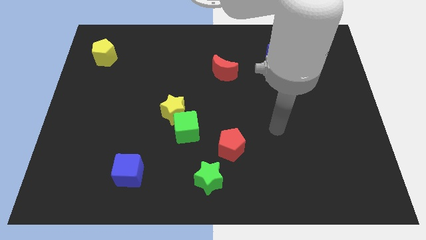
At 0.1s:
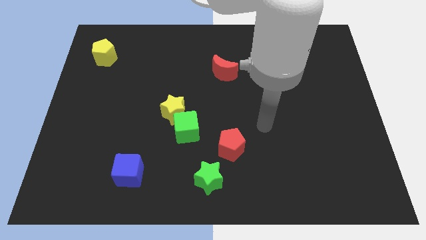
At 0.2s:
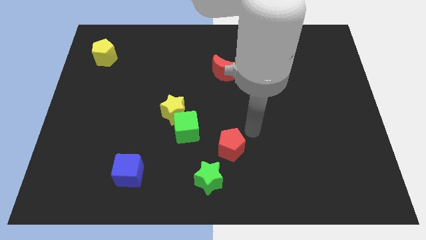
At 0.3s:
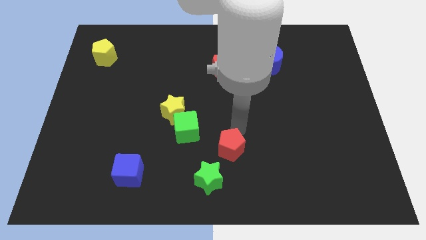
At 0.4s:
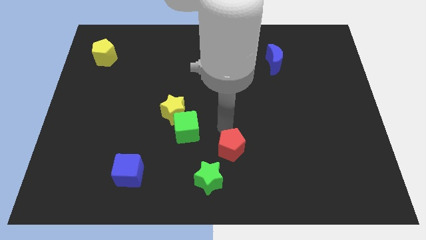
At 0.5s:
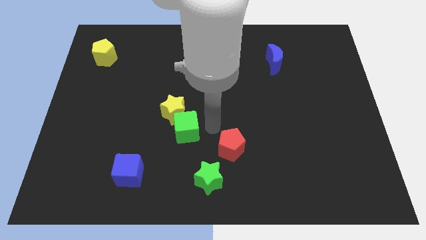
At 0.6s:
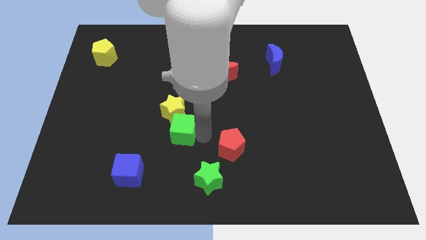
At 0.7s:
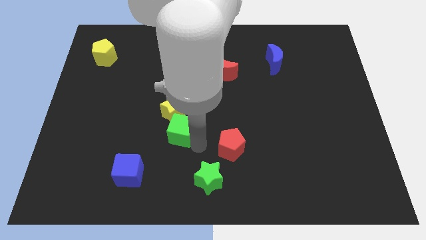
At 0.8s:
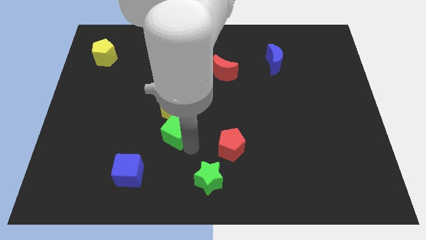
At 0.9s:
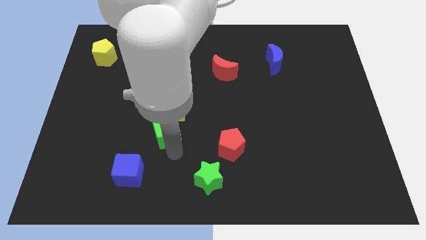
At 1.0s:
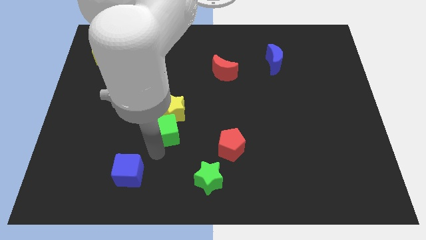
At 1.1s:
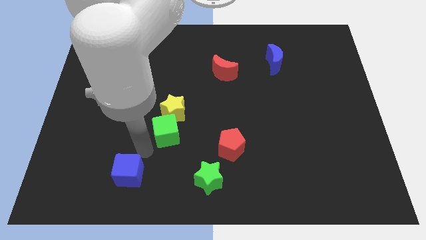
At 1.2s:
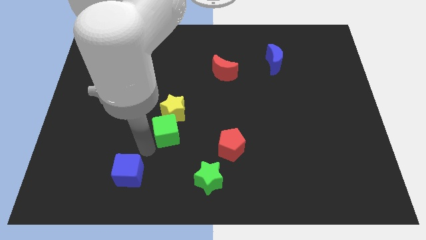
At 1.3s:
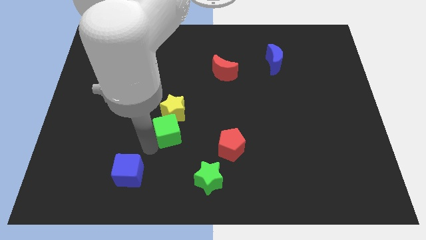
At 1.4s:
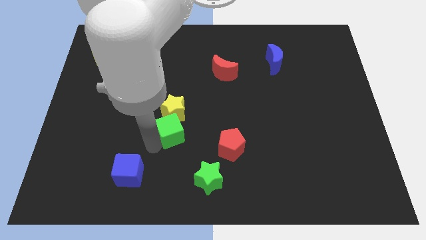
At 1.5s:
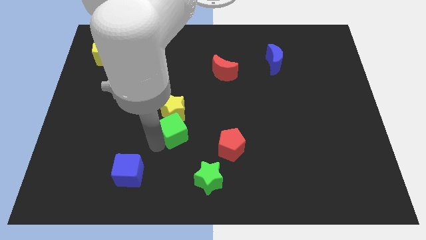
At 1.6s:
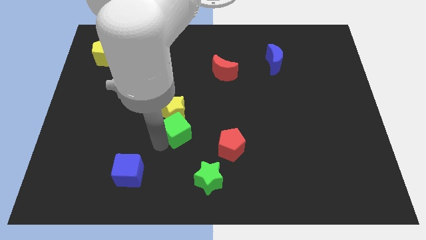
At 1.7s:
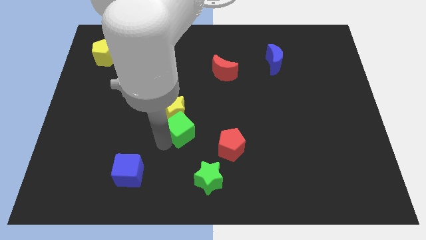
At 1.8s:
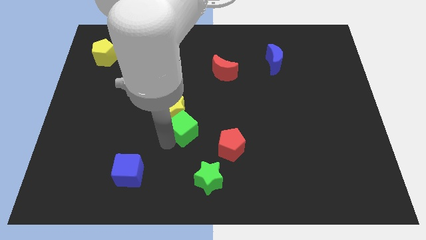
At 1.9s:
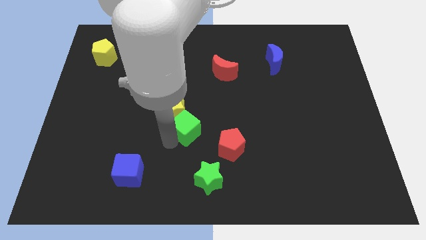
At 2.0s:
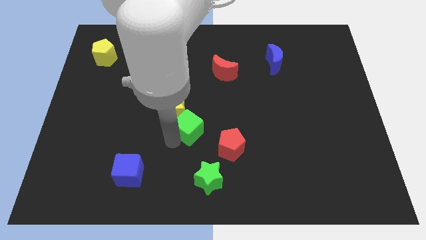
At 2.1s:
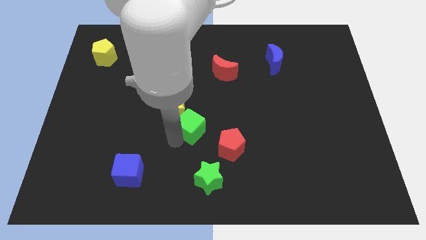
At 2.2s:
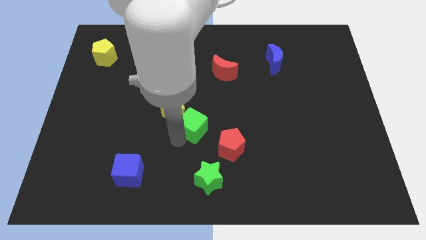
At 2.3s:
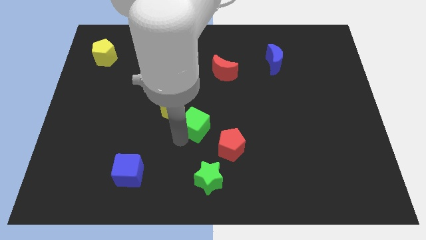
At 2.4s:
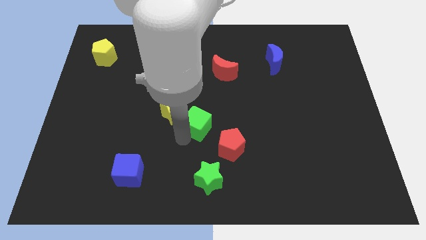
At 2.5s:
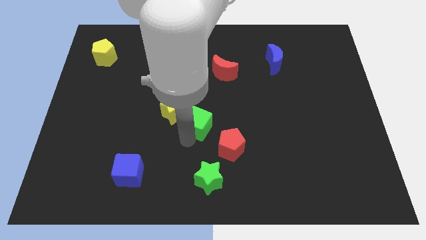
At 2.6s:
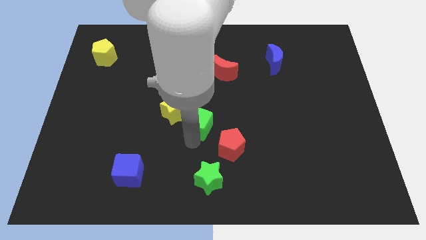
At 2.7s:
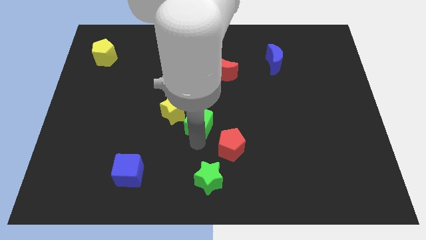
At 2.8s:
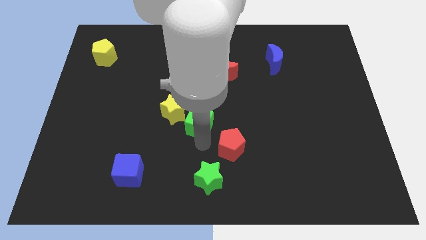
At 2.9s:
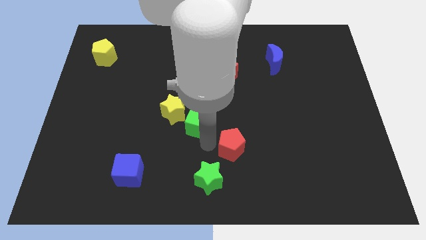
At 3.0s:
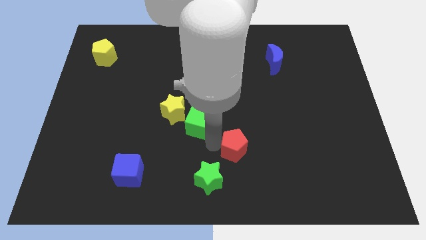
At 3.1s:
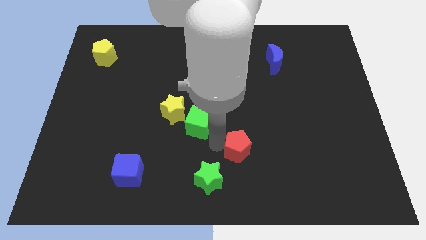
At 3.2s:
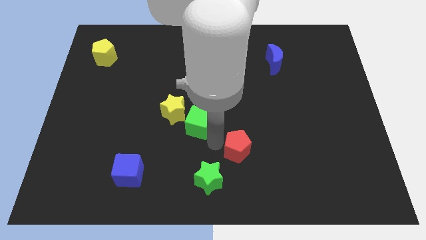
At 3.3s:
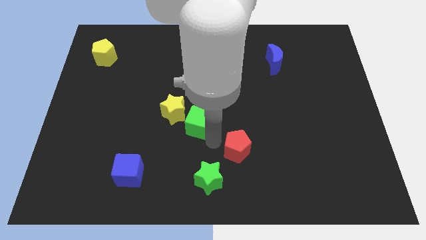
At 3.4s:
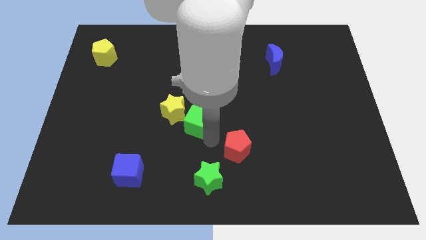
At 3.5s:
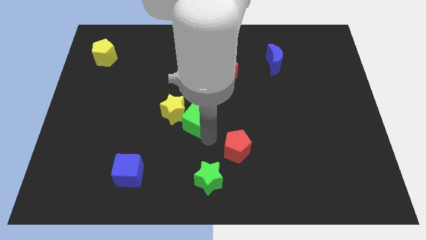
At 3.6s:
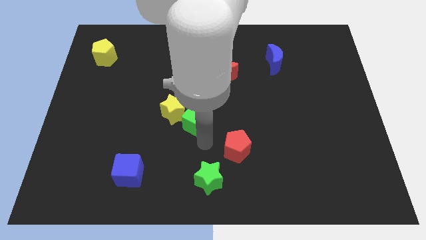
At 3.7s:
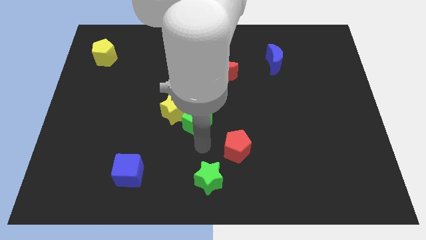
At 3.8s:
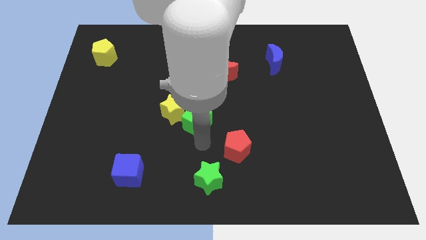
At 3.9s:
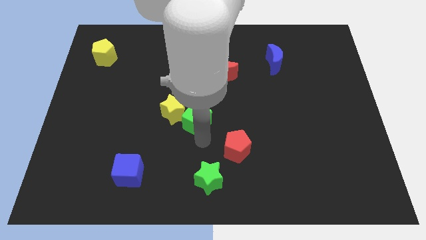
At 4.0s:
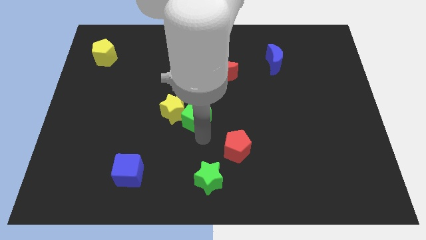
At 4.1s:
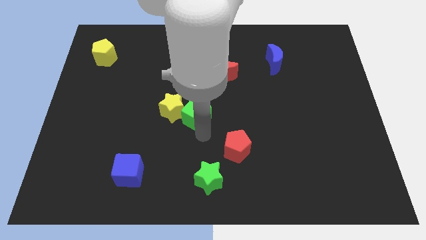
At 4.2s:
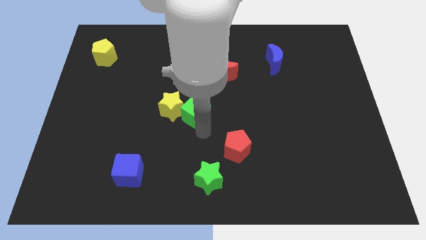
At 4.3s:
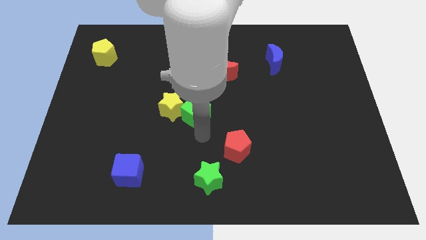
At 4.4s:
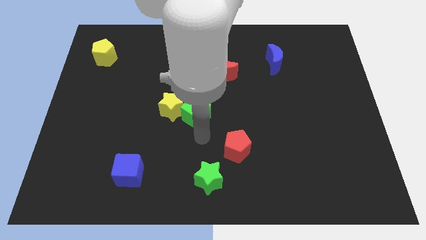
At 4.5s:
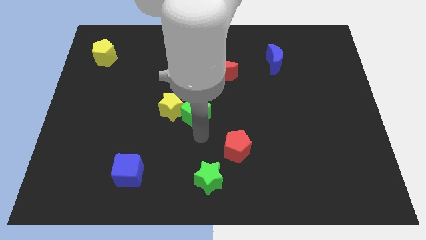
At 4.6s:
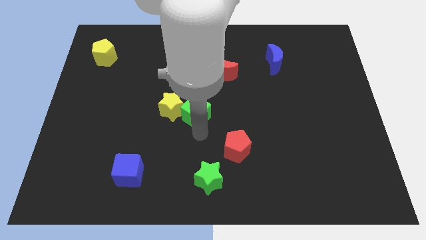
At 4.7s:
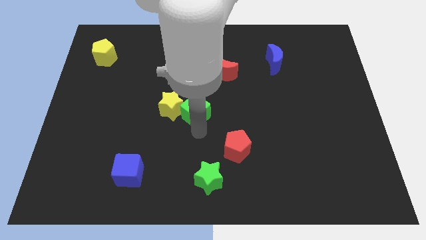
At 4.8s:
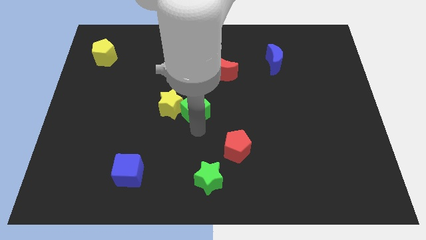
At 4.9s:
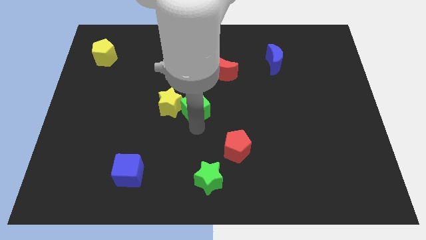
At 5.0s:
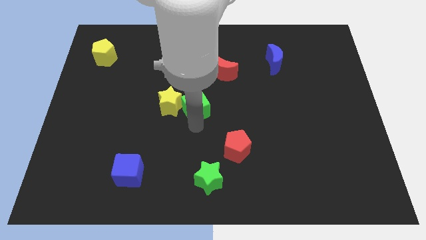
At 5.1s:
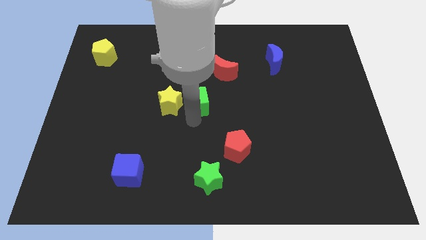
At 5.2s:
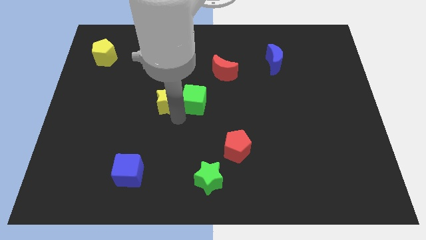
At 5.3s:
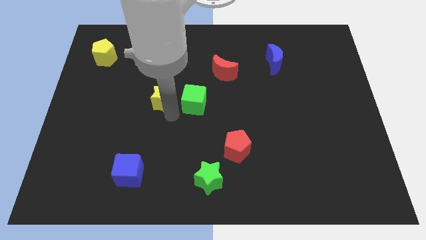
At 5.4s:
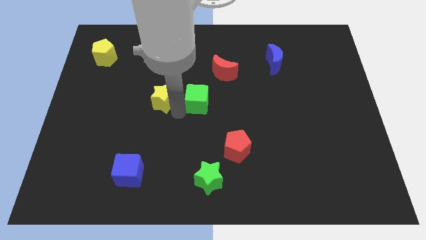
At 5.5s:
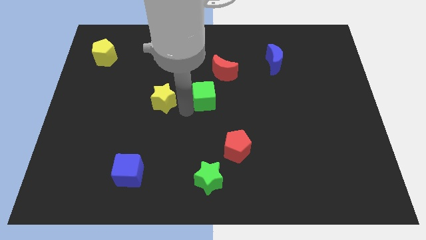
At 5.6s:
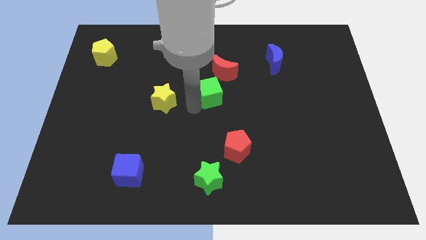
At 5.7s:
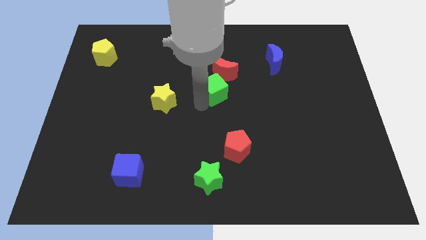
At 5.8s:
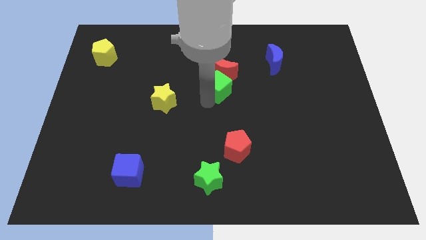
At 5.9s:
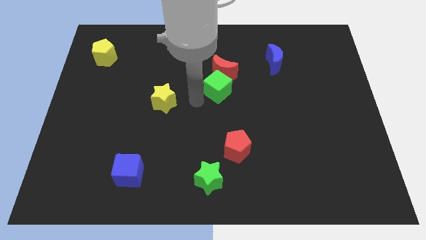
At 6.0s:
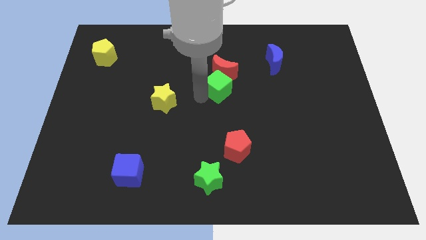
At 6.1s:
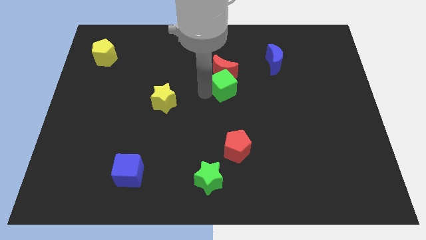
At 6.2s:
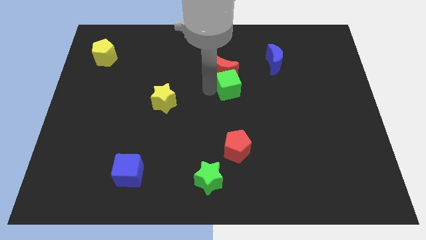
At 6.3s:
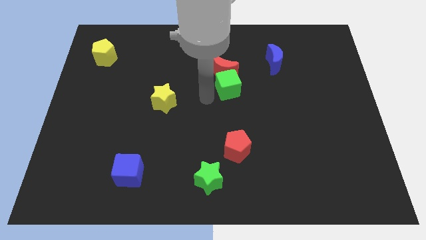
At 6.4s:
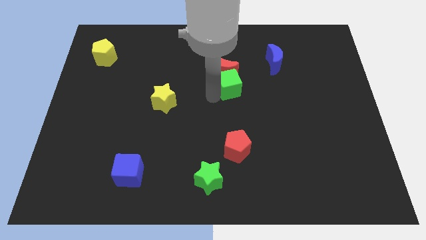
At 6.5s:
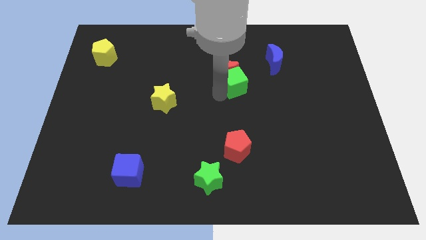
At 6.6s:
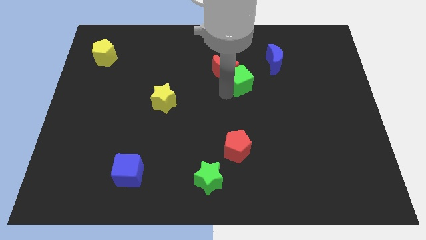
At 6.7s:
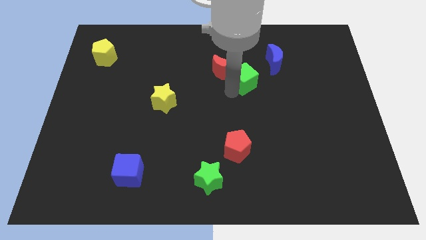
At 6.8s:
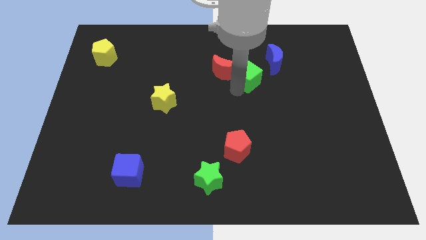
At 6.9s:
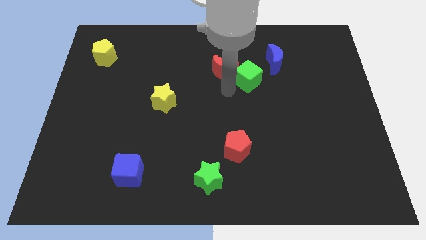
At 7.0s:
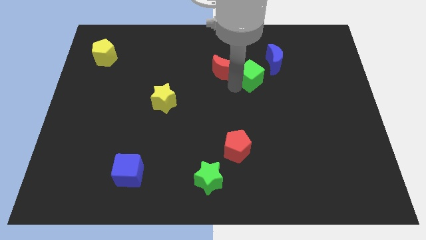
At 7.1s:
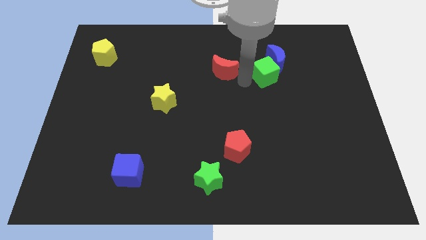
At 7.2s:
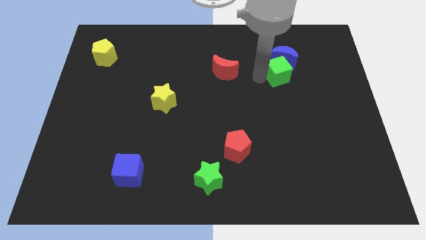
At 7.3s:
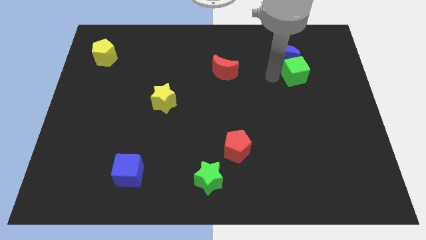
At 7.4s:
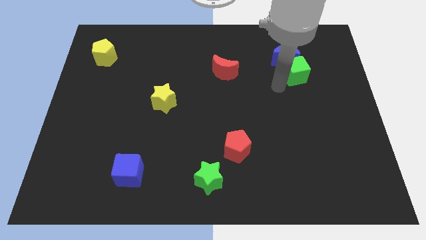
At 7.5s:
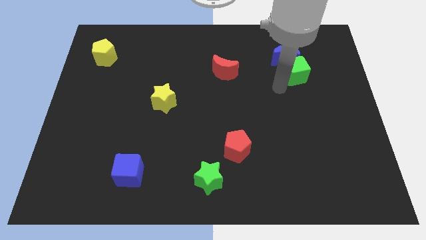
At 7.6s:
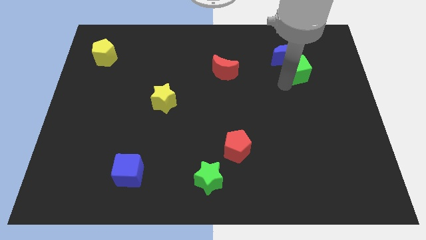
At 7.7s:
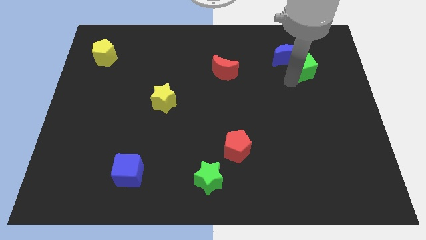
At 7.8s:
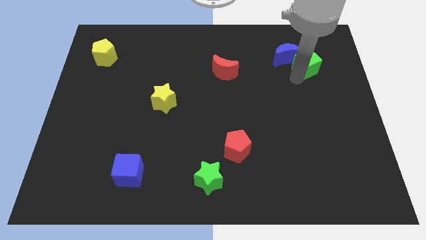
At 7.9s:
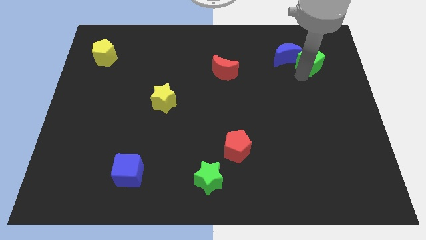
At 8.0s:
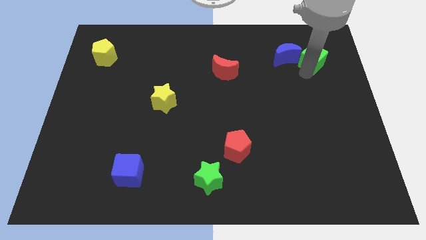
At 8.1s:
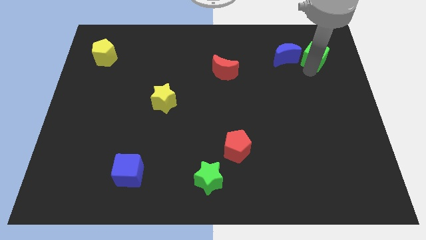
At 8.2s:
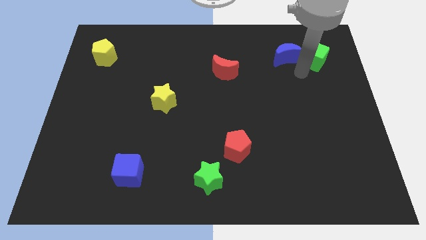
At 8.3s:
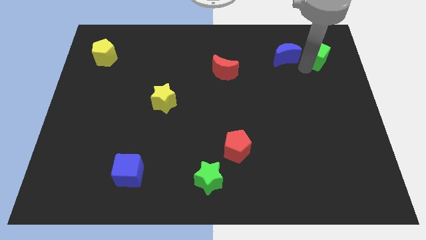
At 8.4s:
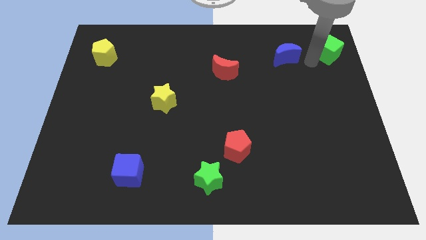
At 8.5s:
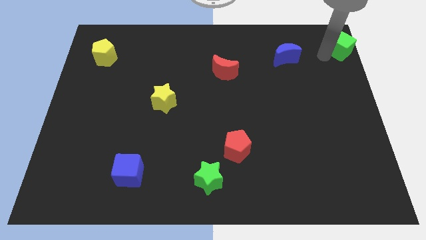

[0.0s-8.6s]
move the green cube to the top right corner
